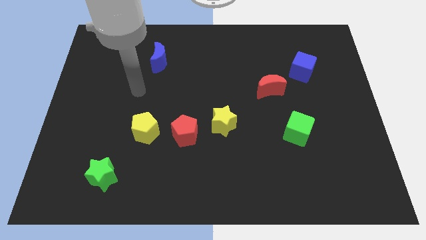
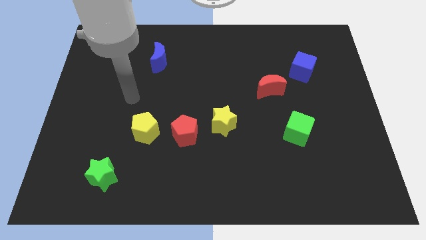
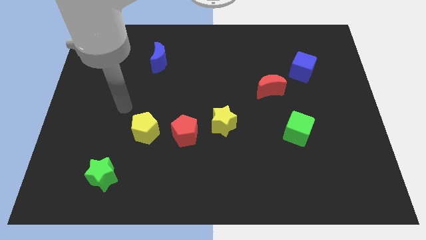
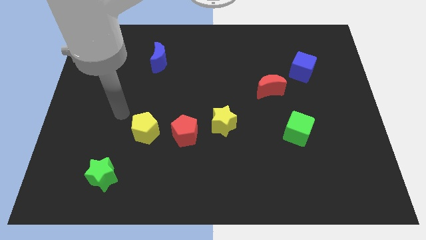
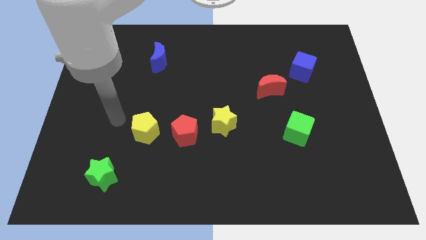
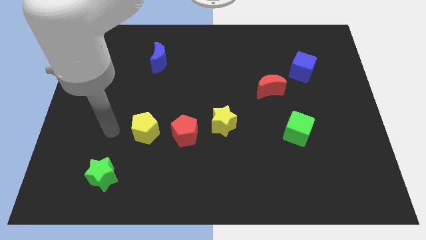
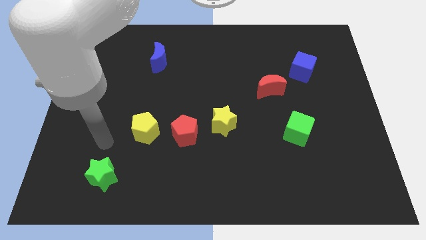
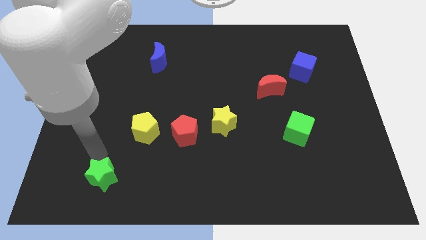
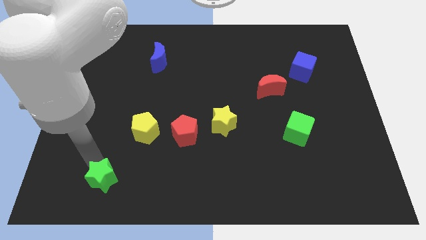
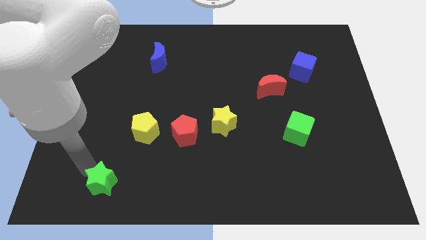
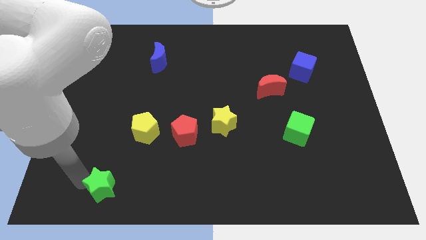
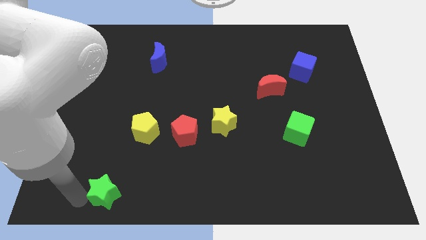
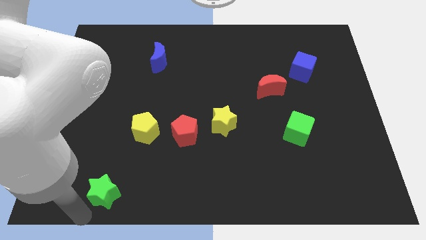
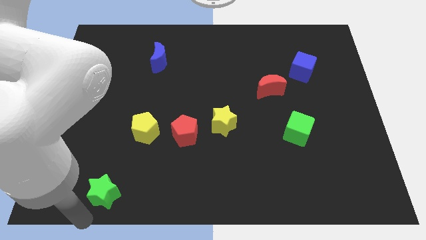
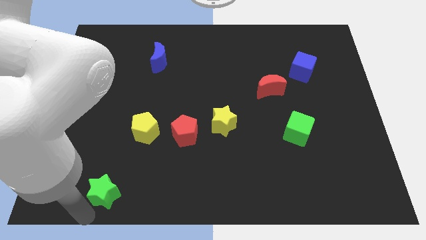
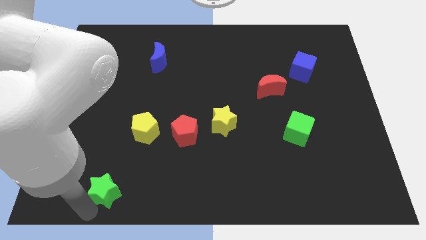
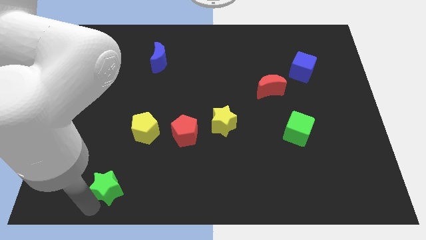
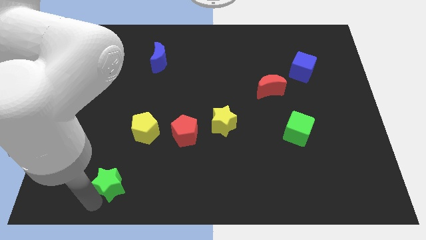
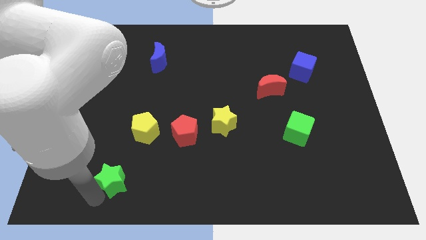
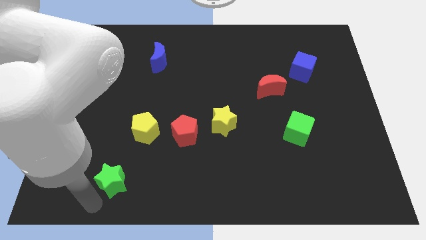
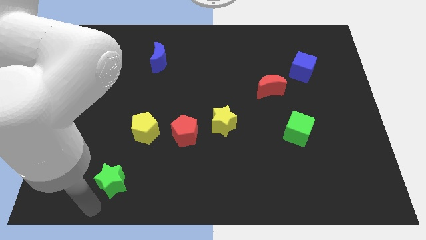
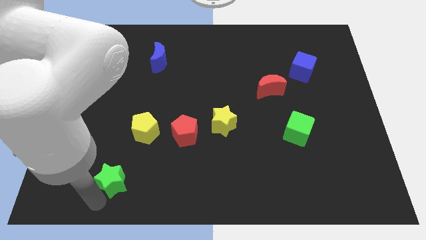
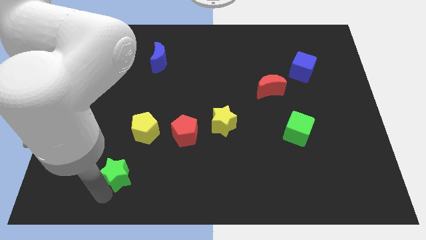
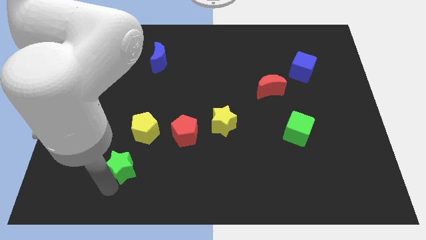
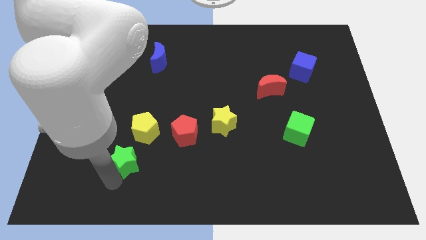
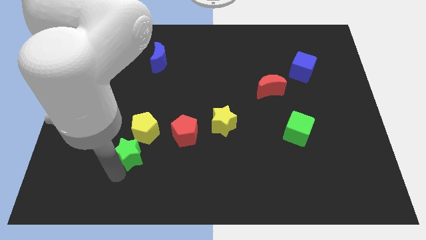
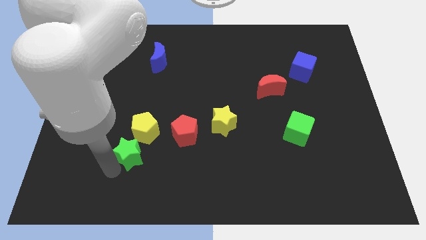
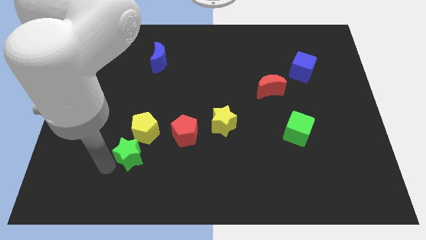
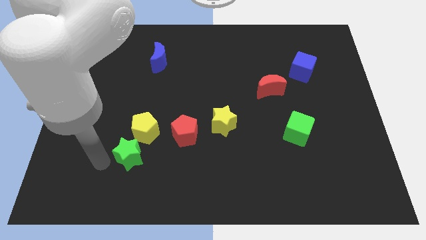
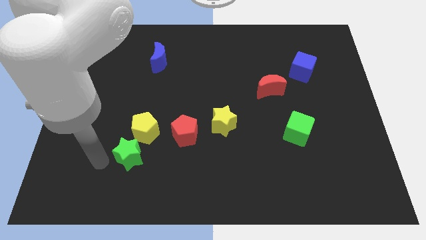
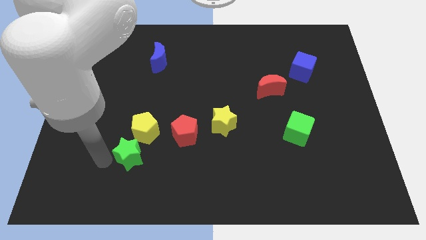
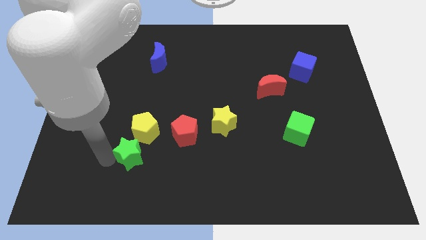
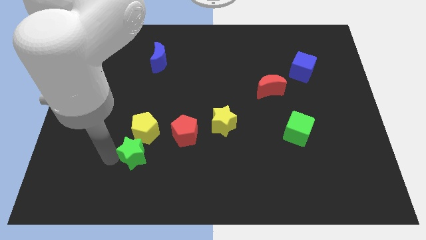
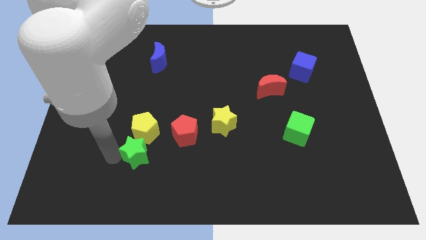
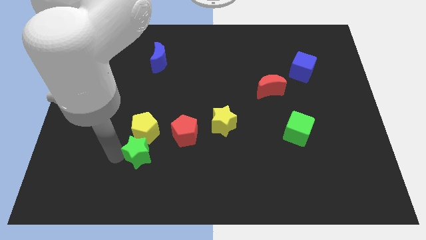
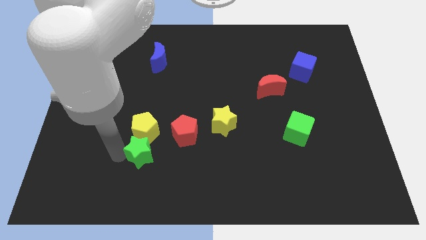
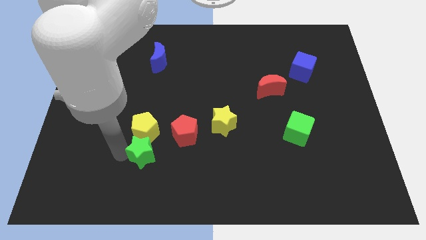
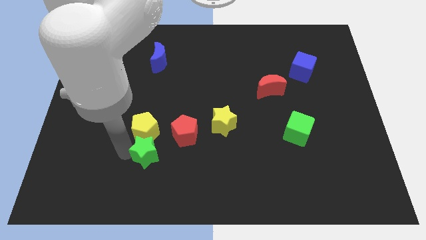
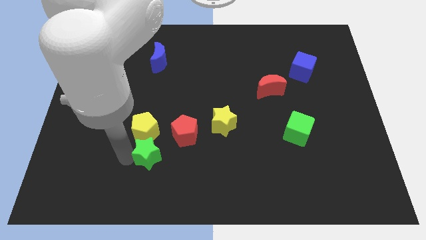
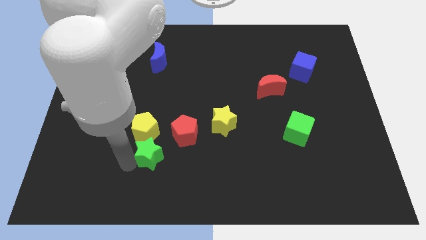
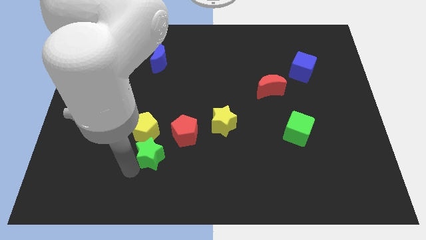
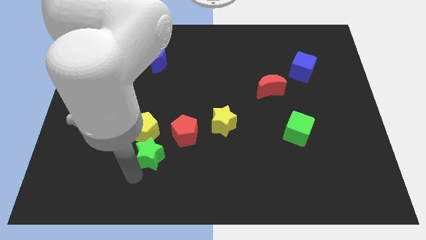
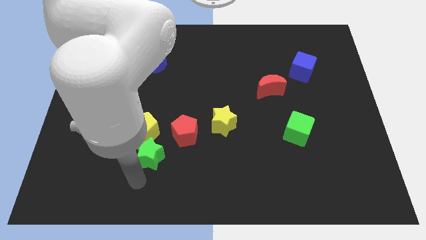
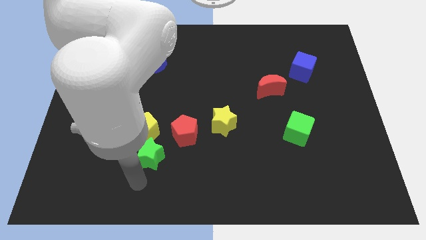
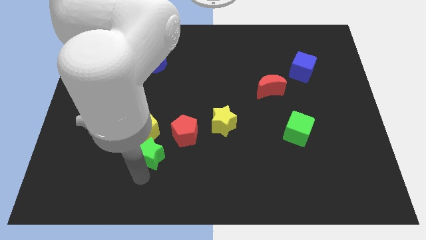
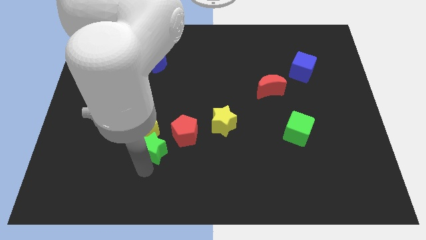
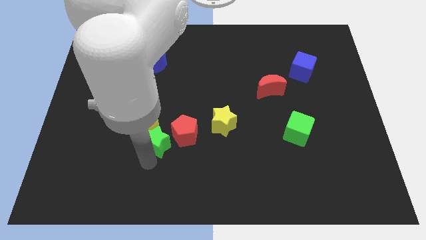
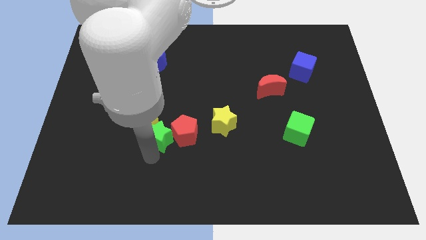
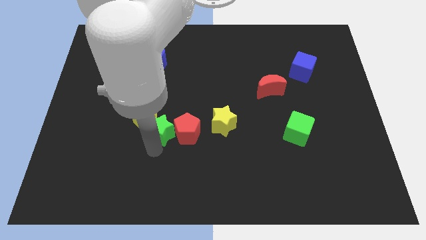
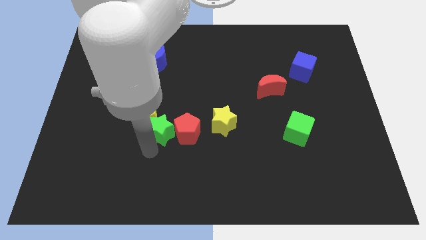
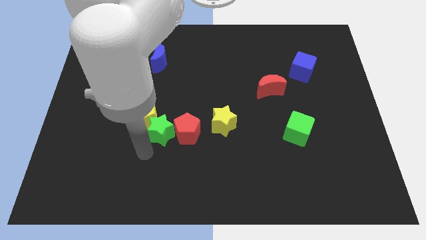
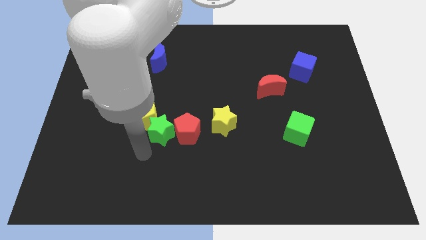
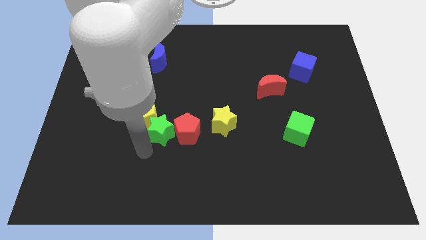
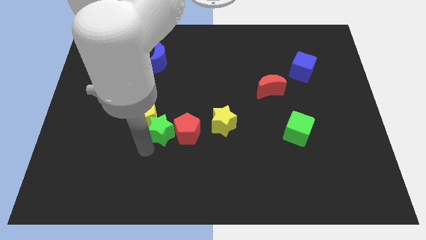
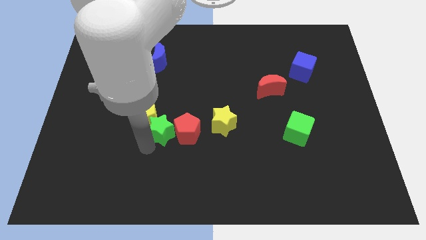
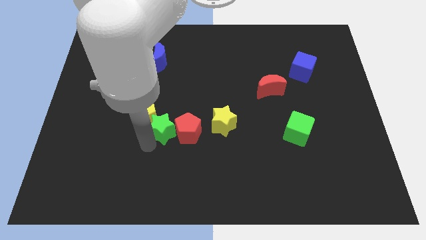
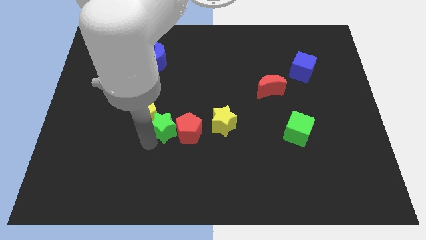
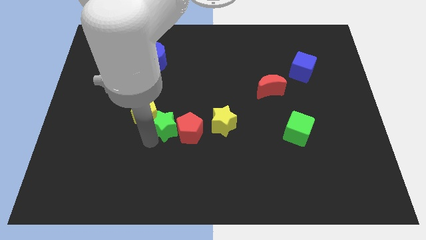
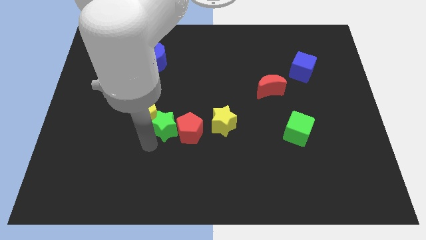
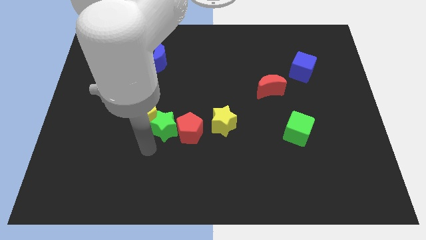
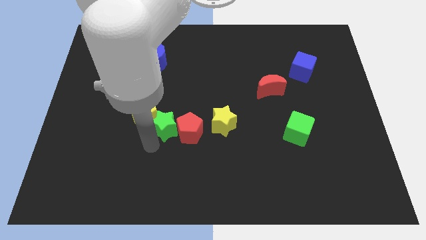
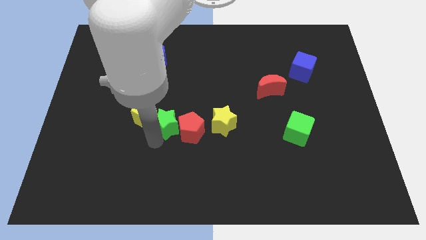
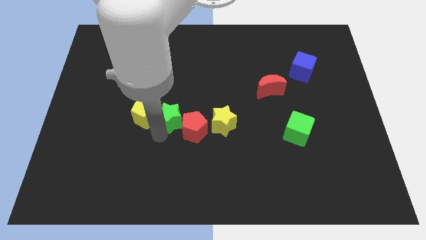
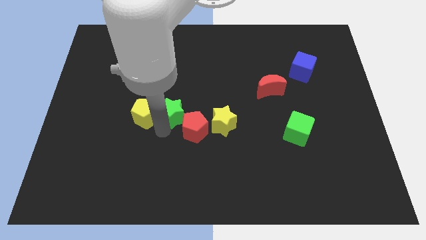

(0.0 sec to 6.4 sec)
slide the green star upwards and to the right diagonally

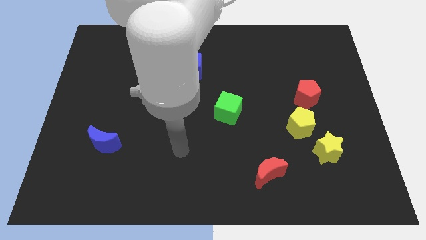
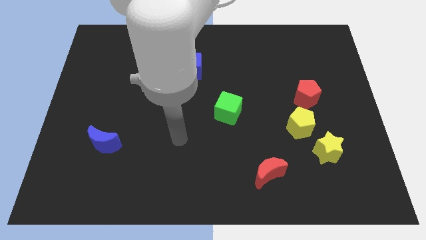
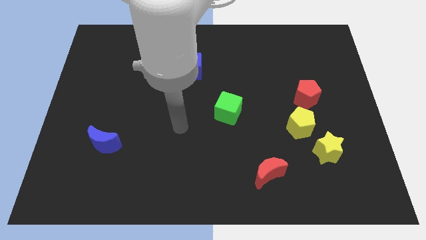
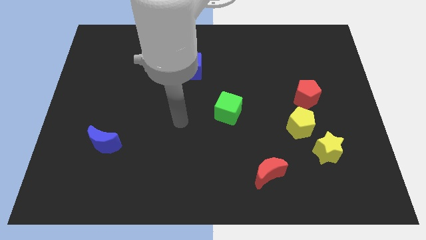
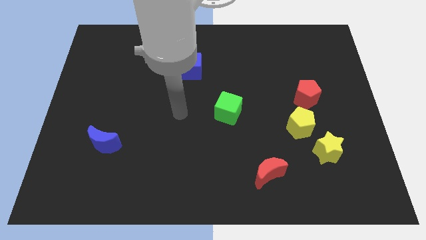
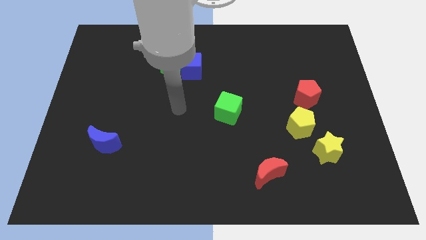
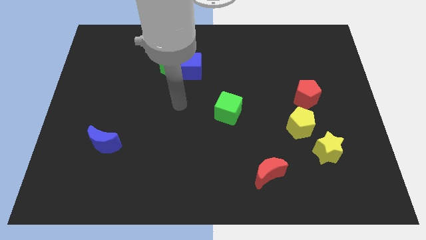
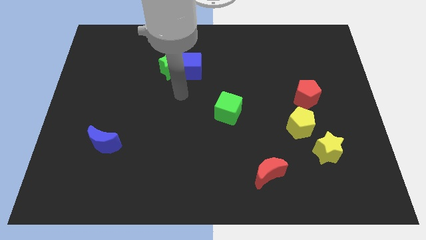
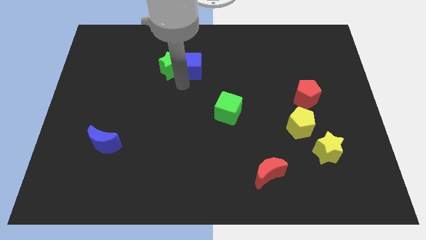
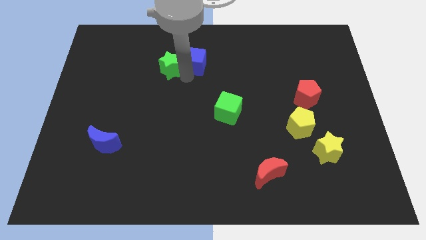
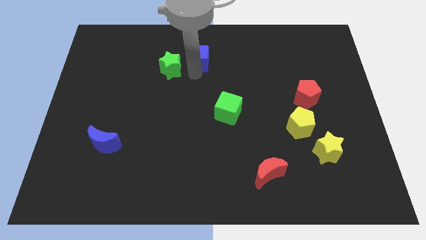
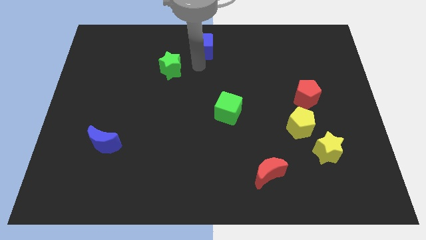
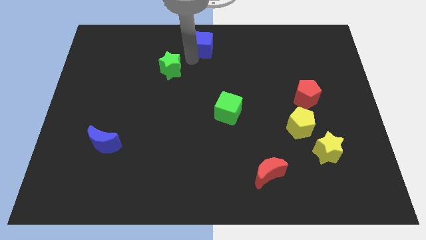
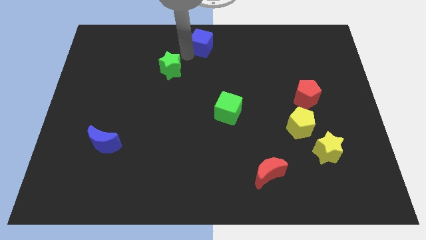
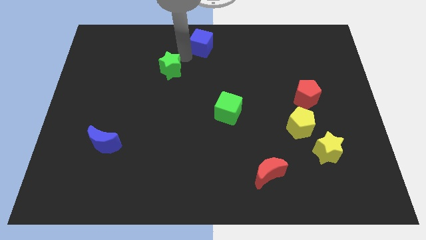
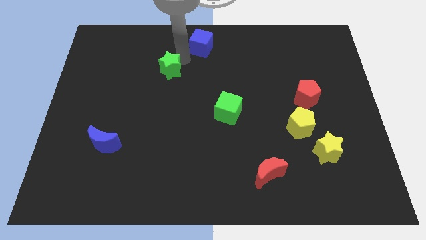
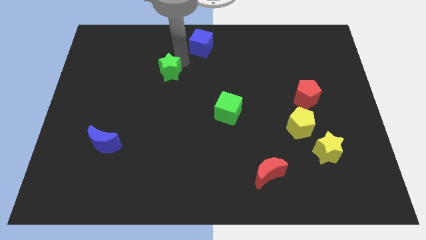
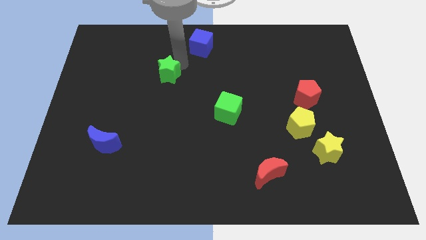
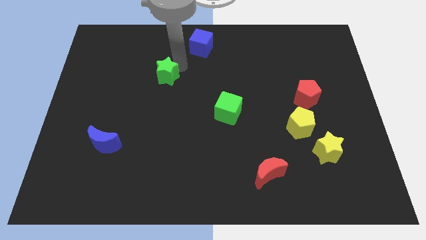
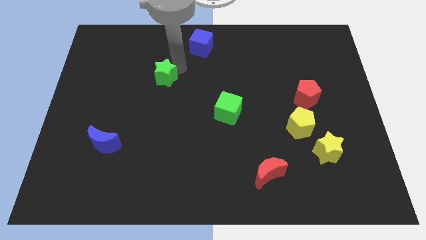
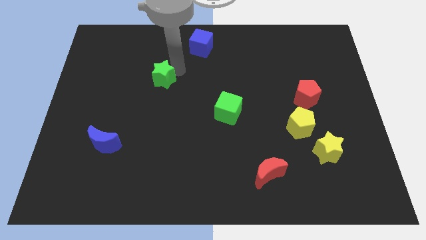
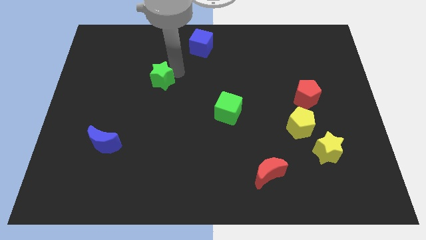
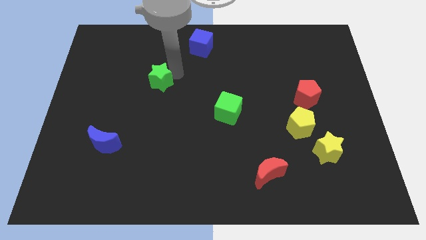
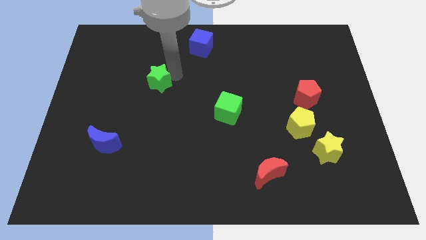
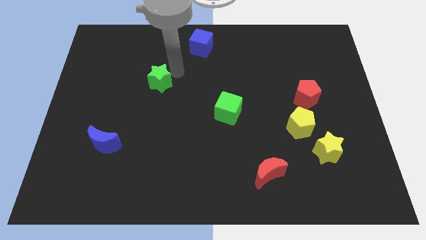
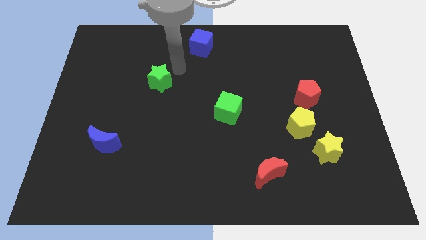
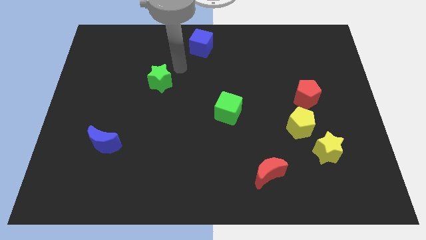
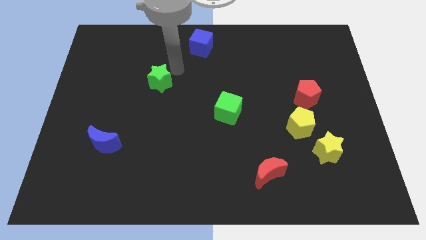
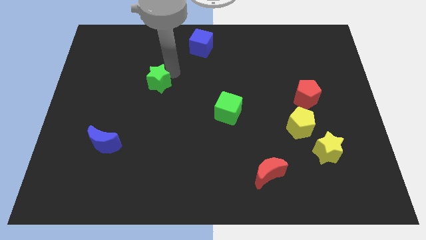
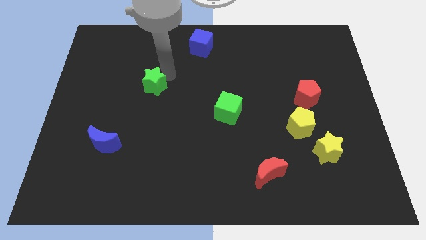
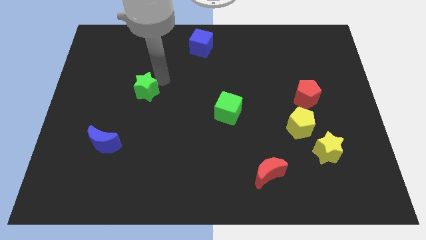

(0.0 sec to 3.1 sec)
push the green star diagonally downwards and to the left somewhat
